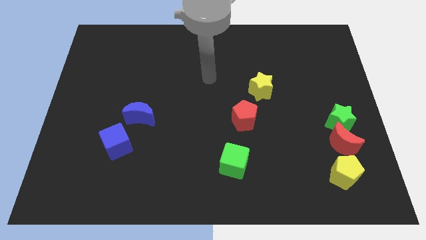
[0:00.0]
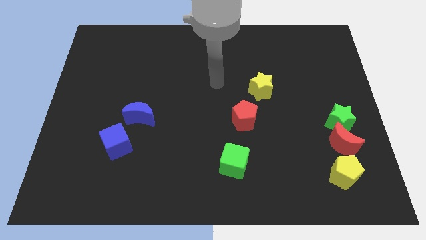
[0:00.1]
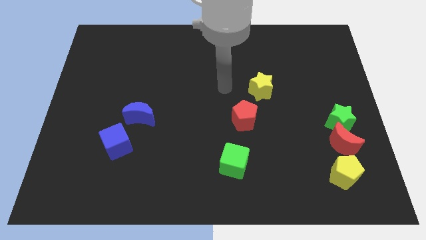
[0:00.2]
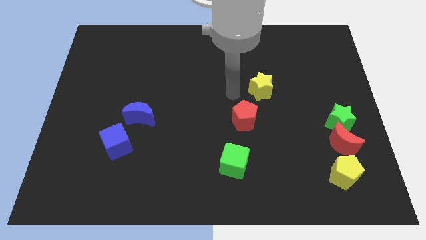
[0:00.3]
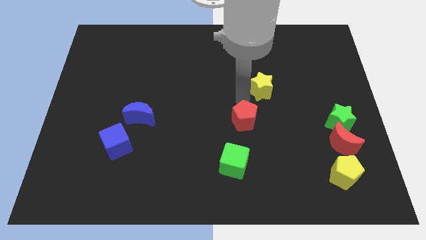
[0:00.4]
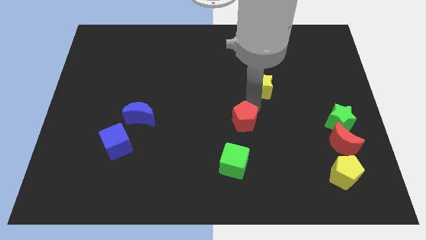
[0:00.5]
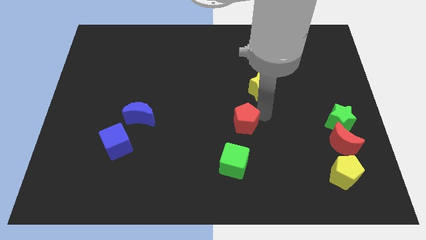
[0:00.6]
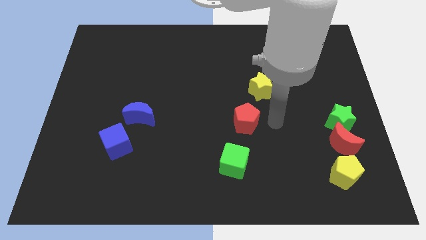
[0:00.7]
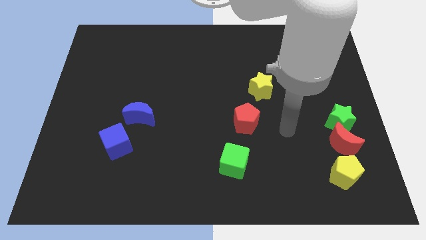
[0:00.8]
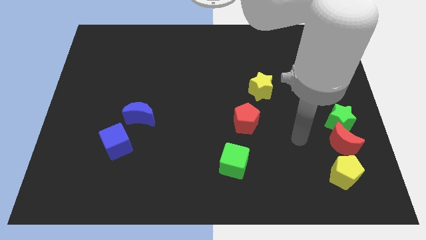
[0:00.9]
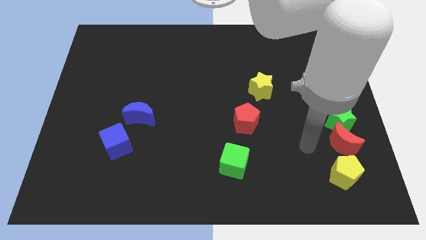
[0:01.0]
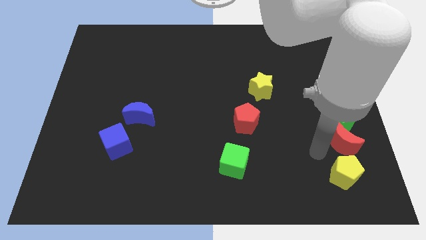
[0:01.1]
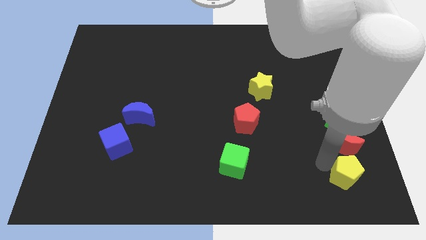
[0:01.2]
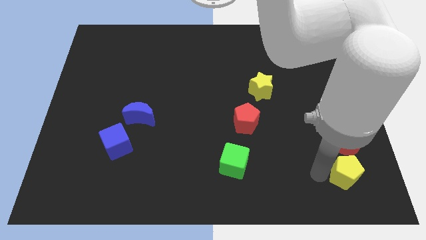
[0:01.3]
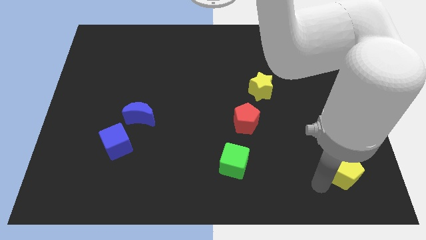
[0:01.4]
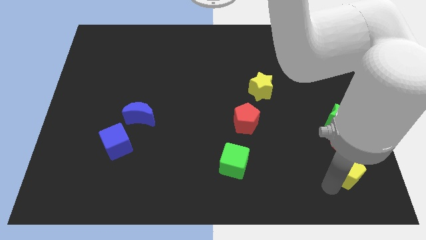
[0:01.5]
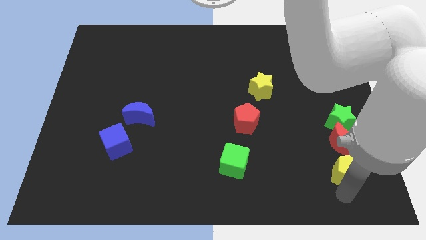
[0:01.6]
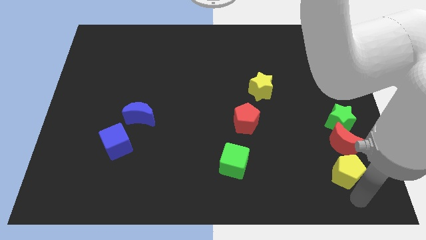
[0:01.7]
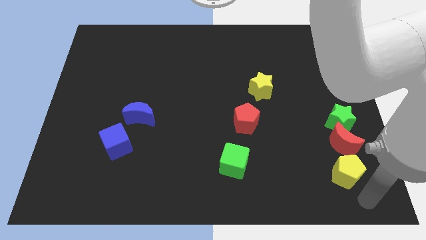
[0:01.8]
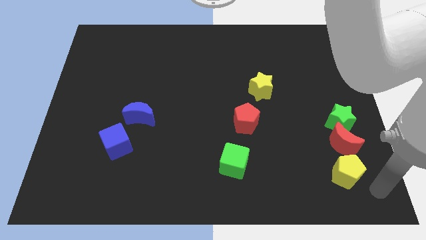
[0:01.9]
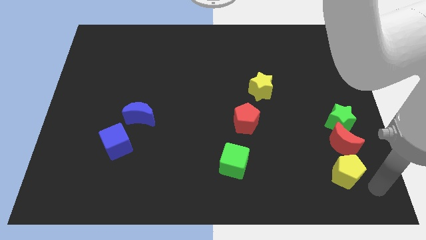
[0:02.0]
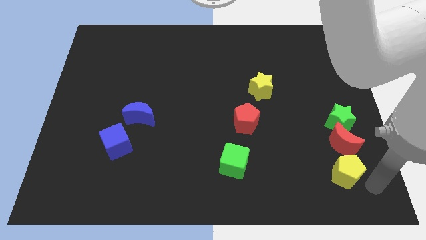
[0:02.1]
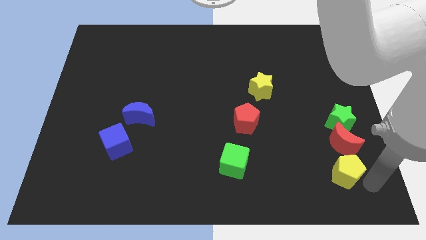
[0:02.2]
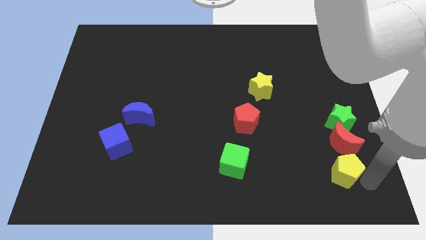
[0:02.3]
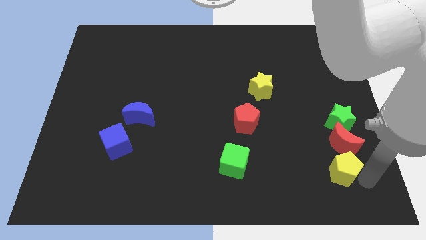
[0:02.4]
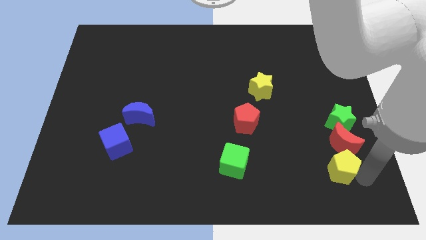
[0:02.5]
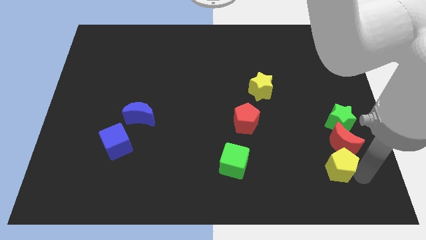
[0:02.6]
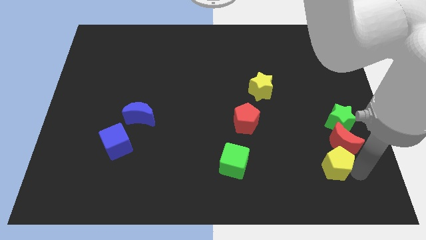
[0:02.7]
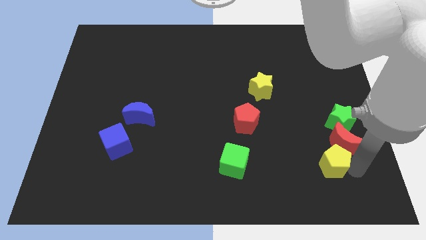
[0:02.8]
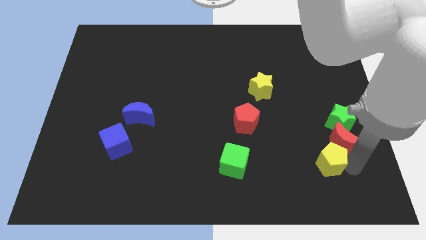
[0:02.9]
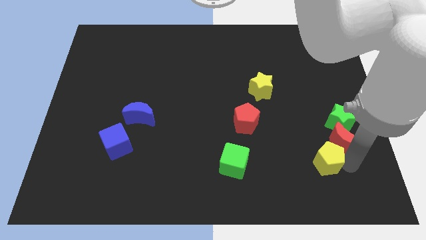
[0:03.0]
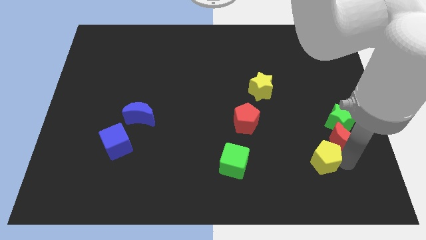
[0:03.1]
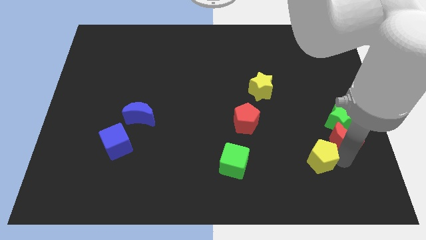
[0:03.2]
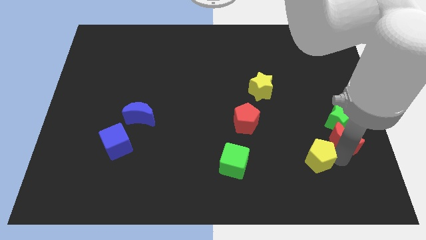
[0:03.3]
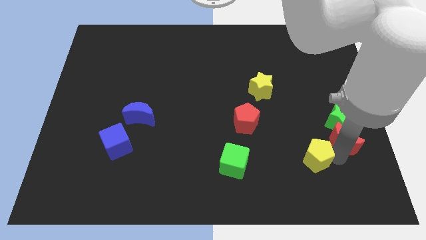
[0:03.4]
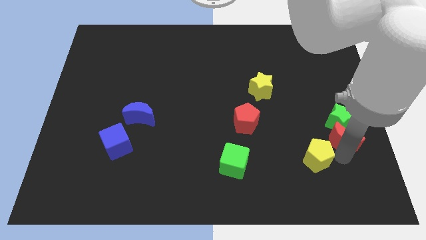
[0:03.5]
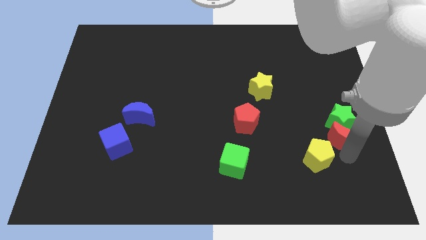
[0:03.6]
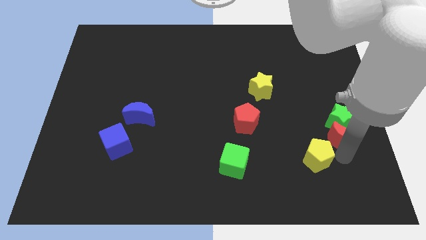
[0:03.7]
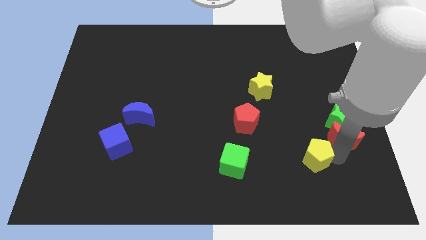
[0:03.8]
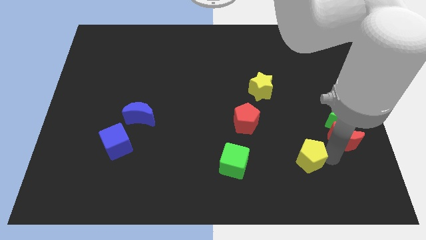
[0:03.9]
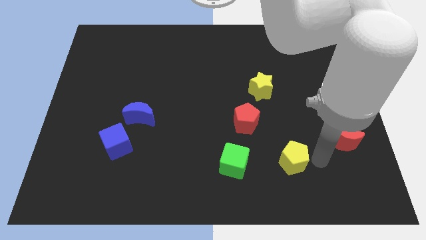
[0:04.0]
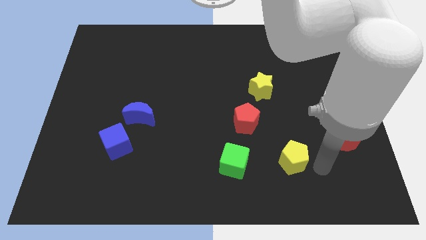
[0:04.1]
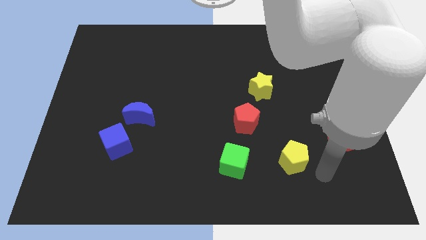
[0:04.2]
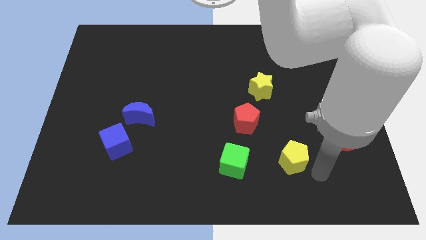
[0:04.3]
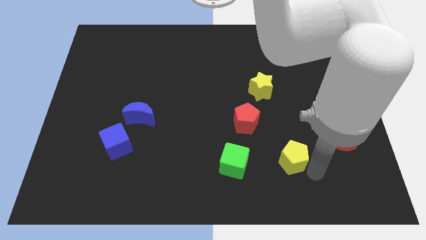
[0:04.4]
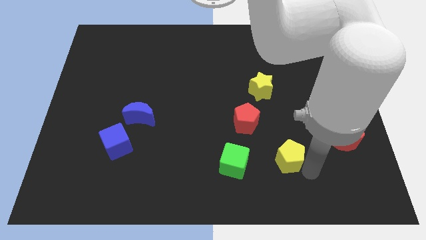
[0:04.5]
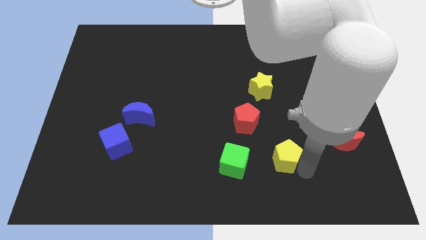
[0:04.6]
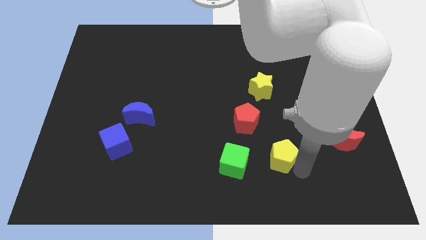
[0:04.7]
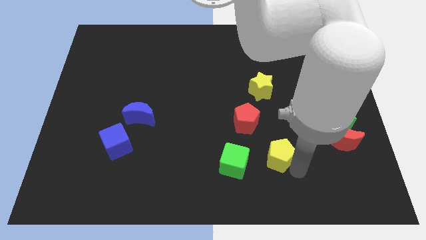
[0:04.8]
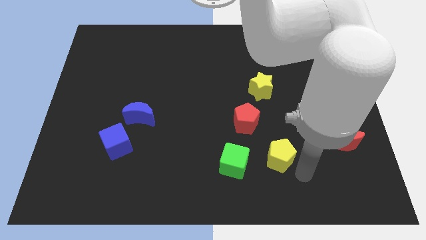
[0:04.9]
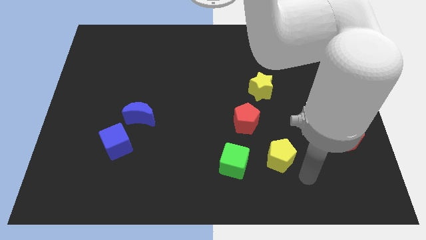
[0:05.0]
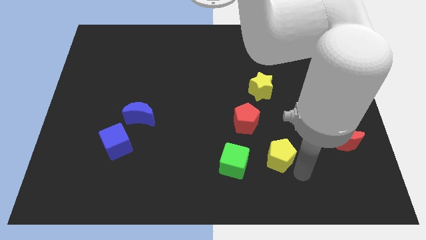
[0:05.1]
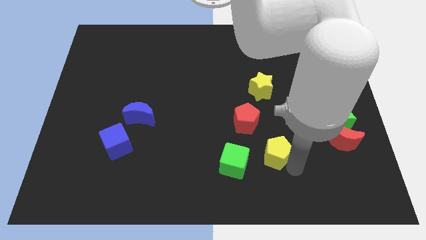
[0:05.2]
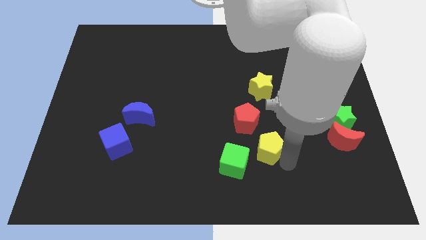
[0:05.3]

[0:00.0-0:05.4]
push the yellow pentagon to the top right of the green cube
